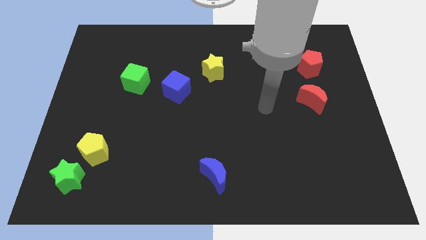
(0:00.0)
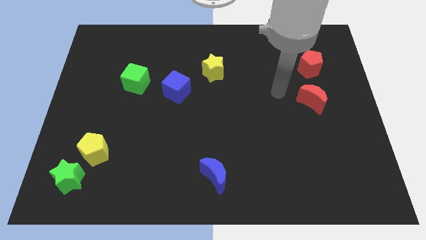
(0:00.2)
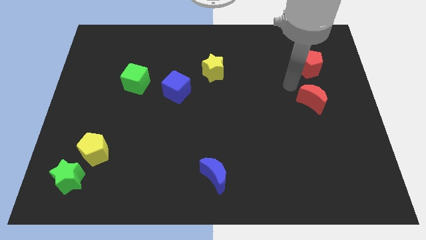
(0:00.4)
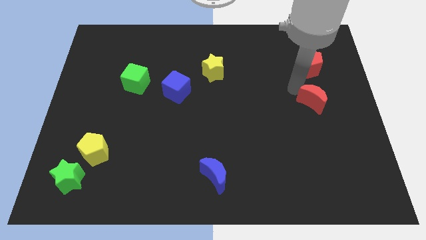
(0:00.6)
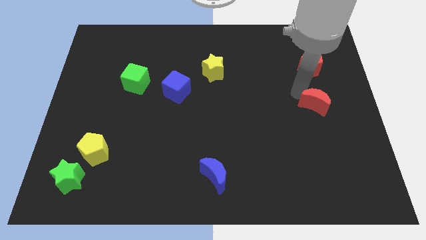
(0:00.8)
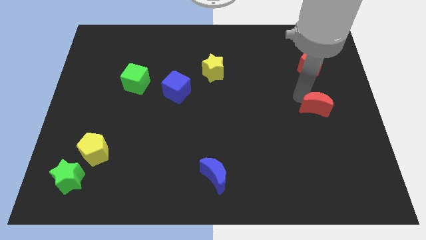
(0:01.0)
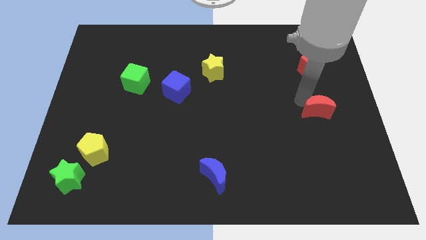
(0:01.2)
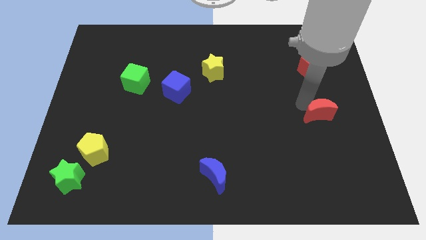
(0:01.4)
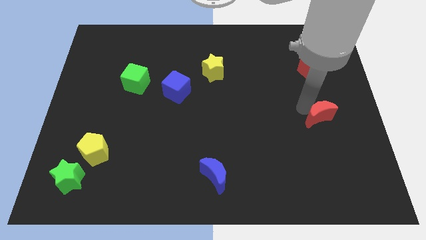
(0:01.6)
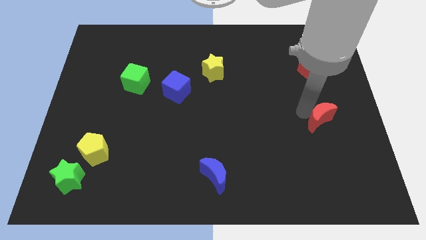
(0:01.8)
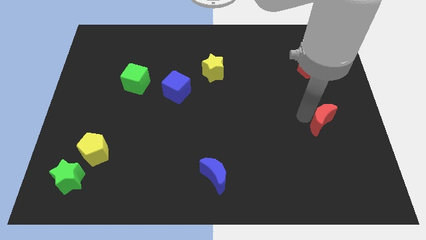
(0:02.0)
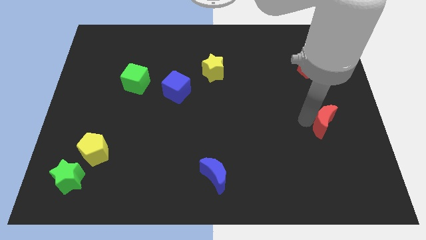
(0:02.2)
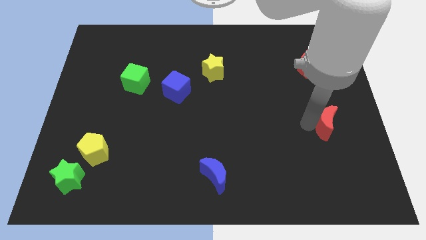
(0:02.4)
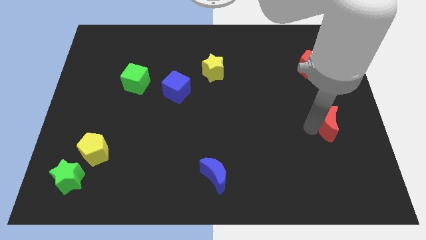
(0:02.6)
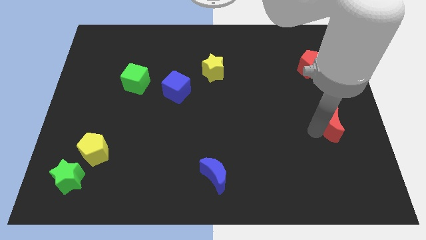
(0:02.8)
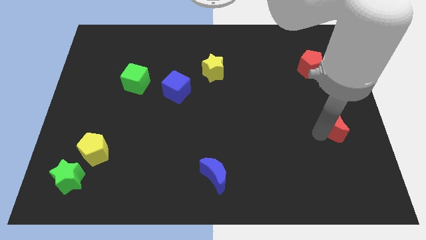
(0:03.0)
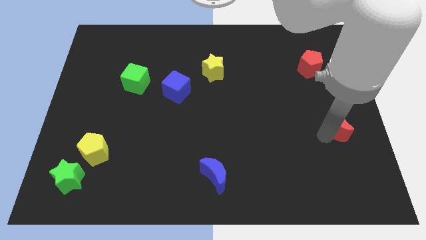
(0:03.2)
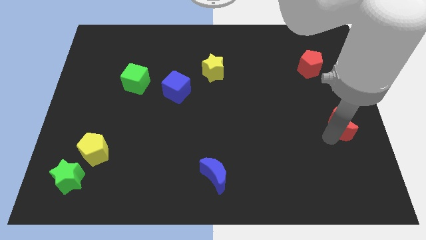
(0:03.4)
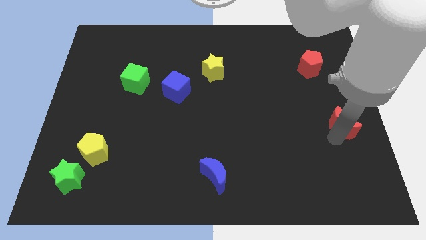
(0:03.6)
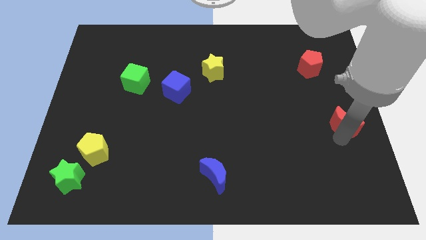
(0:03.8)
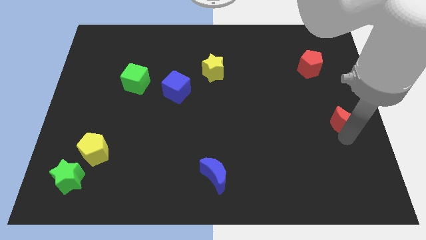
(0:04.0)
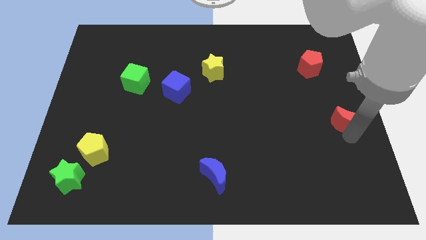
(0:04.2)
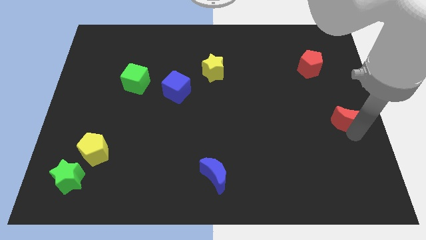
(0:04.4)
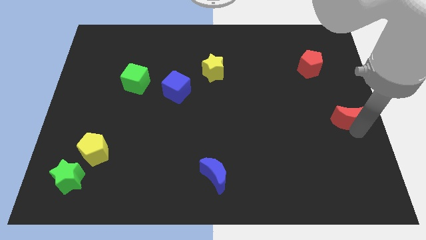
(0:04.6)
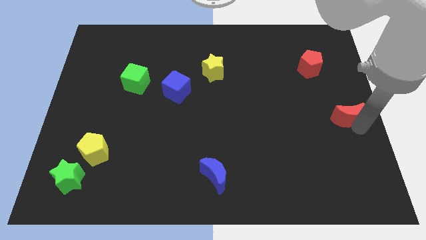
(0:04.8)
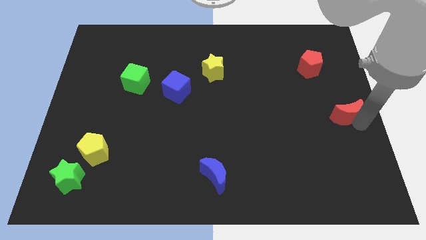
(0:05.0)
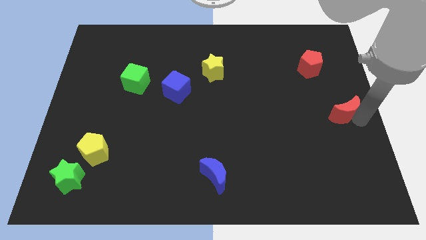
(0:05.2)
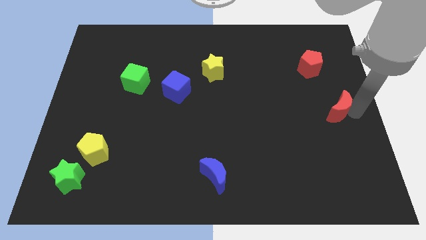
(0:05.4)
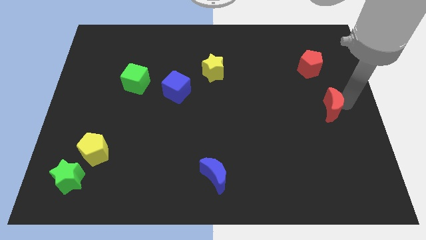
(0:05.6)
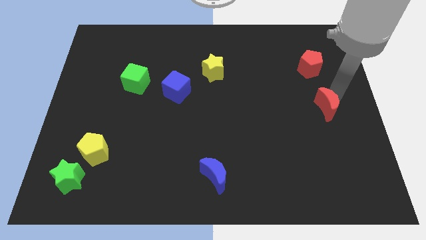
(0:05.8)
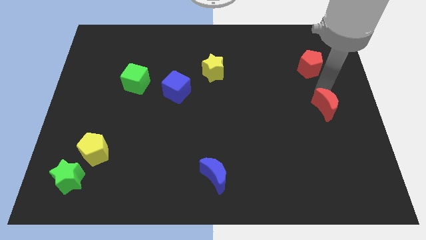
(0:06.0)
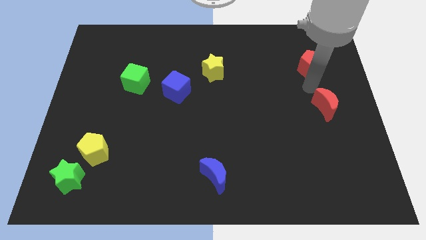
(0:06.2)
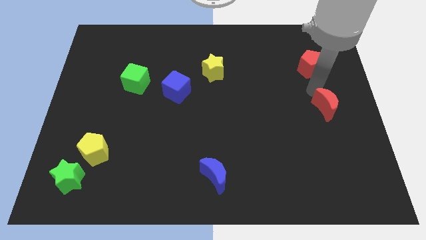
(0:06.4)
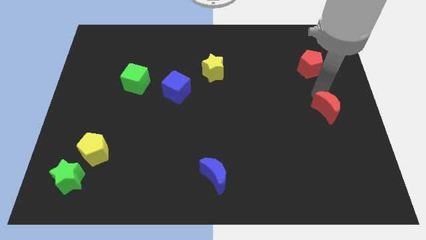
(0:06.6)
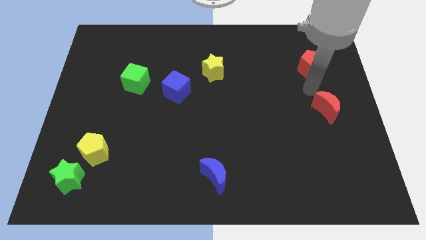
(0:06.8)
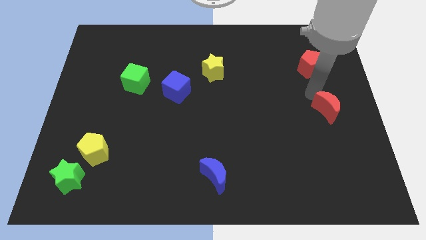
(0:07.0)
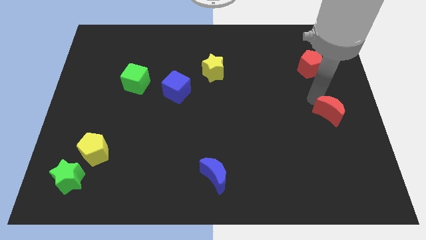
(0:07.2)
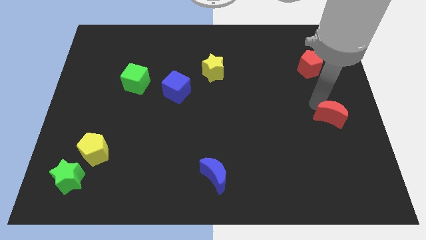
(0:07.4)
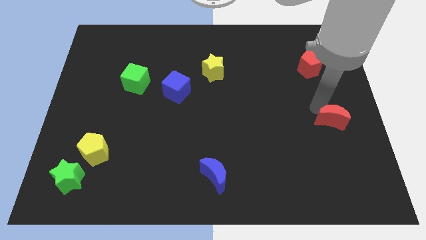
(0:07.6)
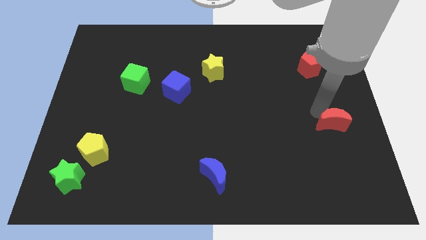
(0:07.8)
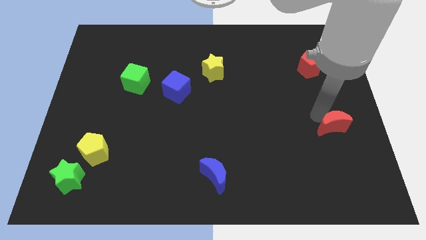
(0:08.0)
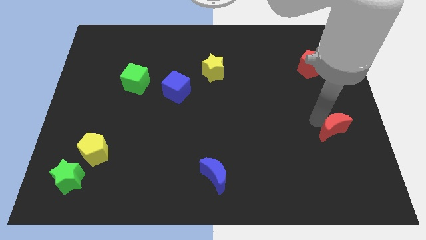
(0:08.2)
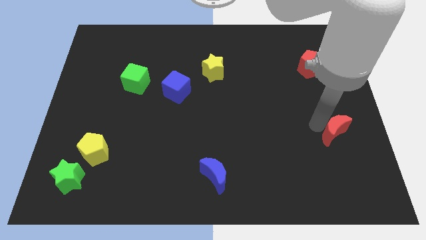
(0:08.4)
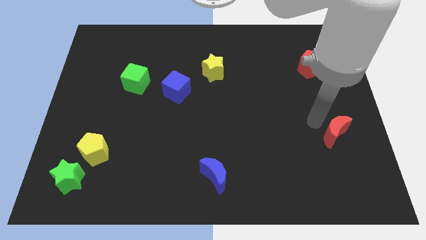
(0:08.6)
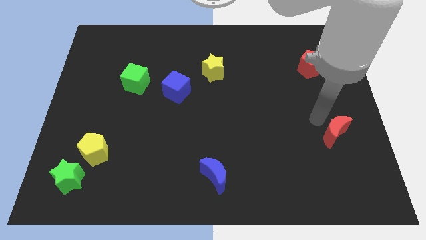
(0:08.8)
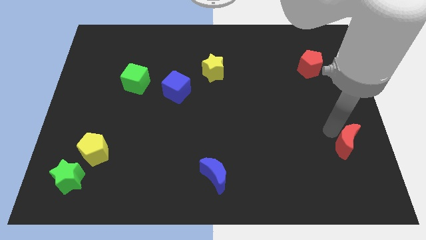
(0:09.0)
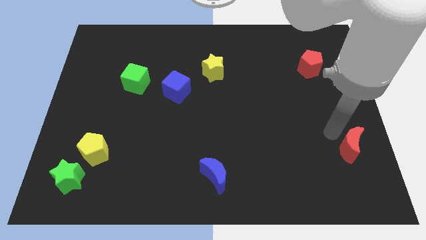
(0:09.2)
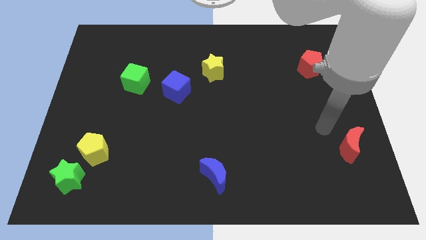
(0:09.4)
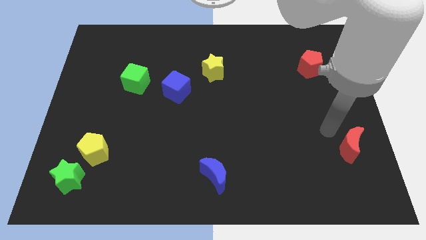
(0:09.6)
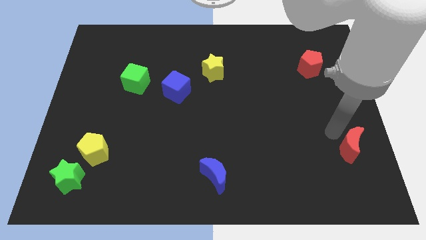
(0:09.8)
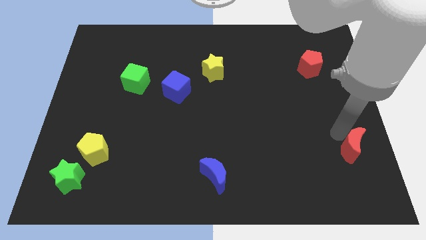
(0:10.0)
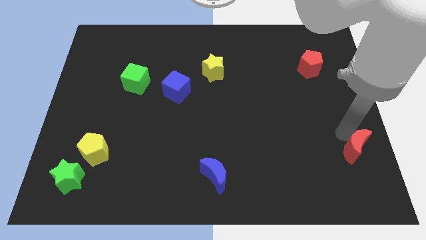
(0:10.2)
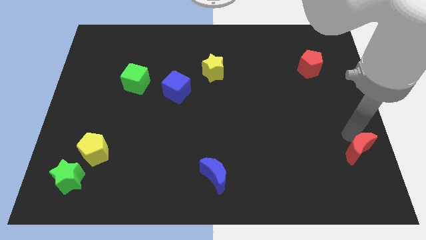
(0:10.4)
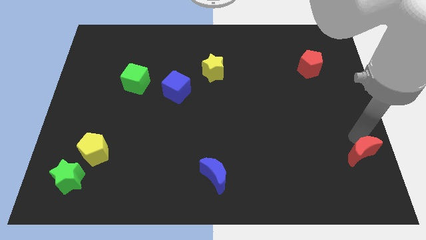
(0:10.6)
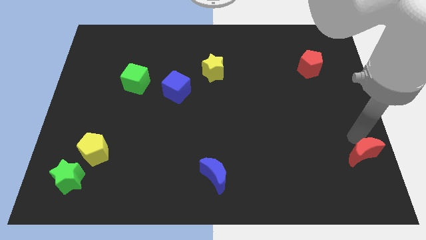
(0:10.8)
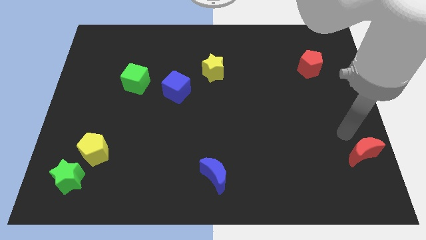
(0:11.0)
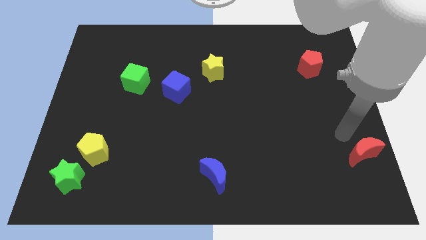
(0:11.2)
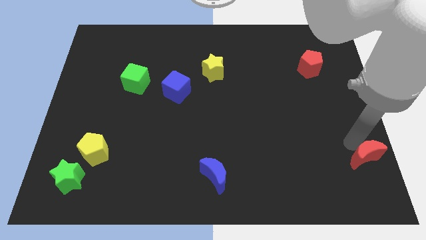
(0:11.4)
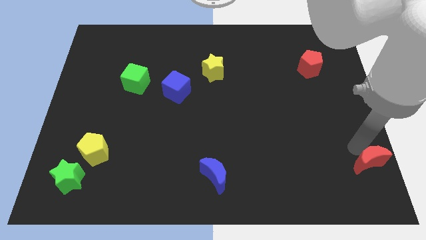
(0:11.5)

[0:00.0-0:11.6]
put the red moon to the bottom right corner

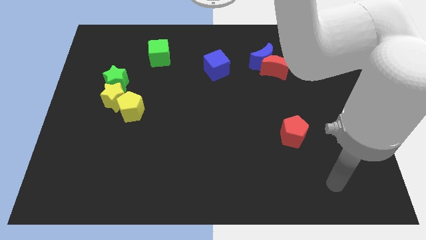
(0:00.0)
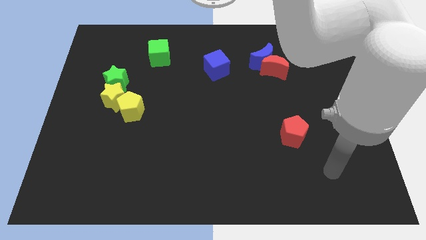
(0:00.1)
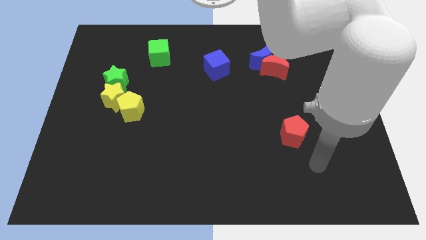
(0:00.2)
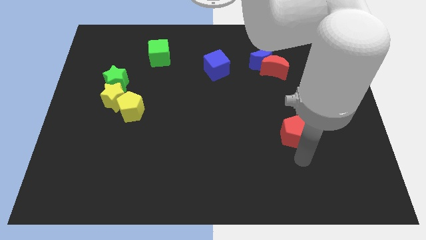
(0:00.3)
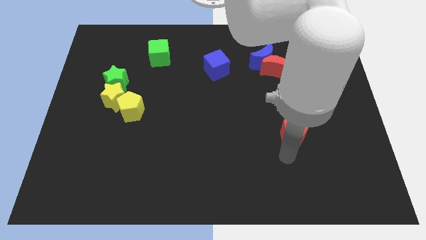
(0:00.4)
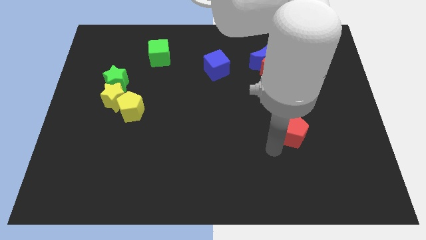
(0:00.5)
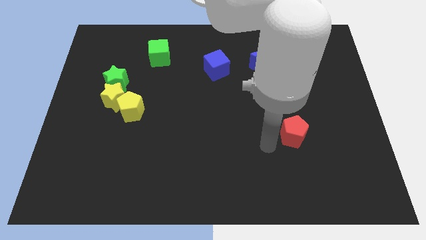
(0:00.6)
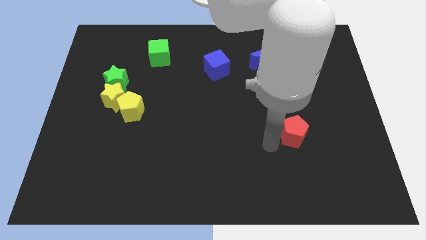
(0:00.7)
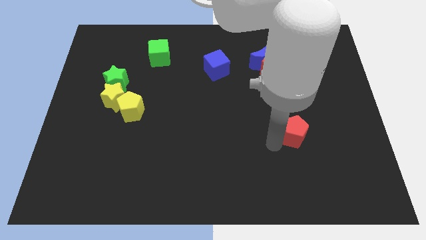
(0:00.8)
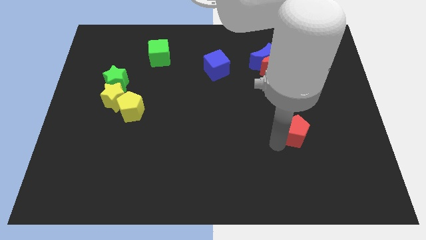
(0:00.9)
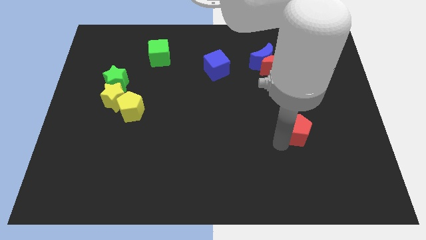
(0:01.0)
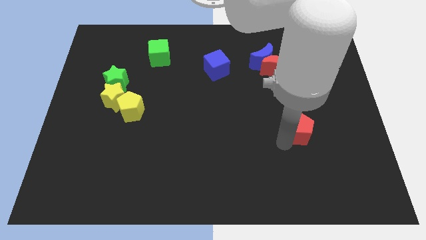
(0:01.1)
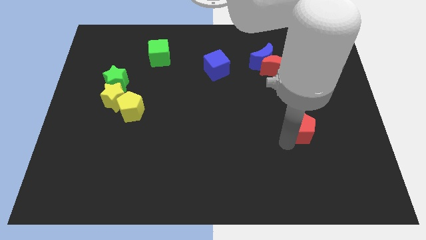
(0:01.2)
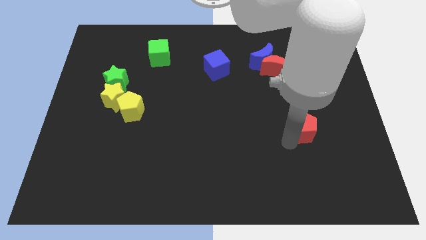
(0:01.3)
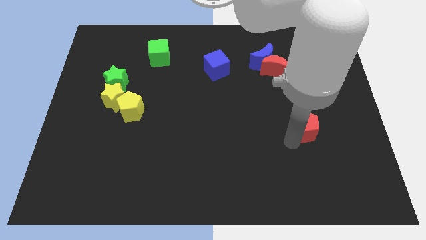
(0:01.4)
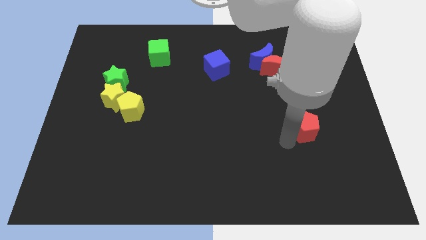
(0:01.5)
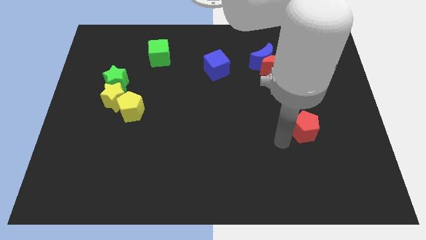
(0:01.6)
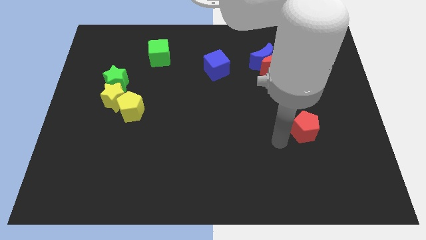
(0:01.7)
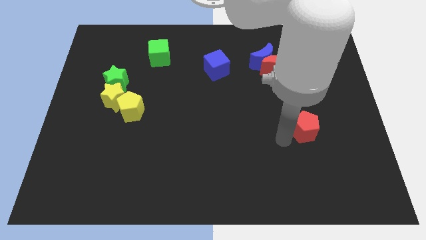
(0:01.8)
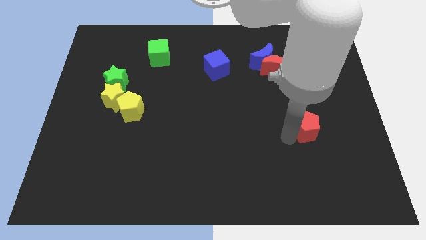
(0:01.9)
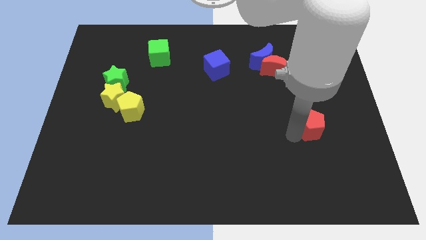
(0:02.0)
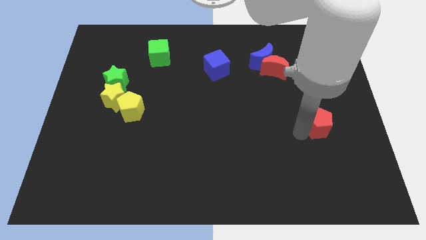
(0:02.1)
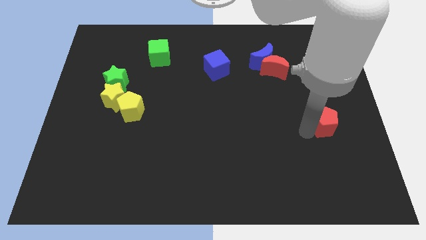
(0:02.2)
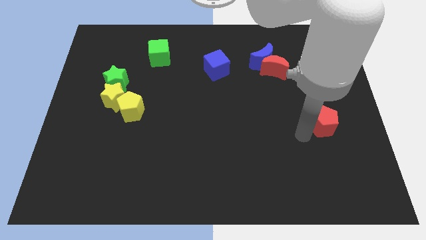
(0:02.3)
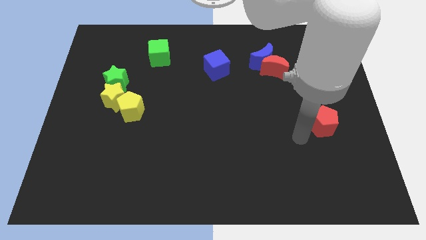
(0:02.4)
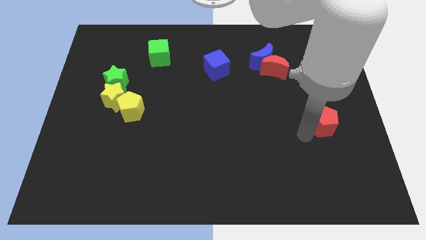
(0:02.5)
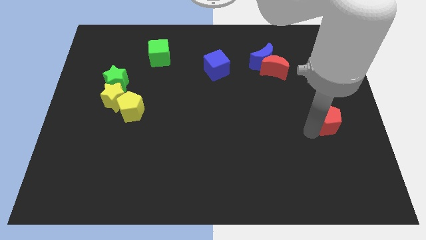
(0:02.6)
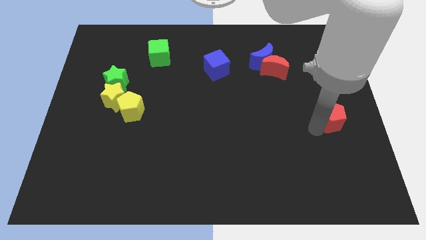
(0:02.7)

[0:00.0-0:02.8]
put the red pentagon to the center right
